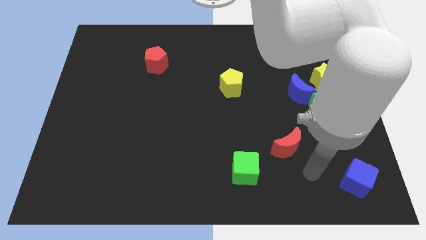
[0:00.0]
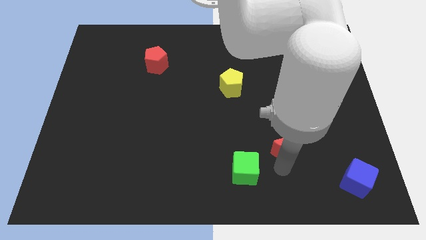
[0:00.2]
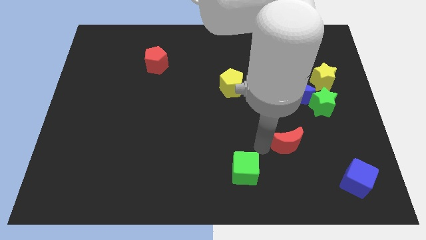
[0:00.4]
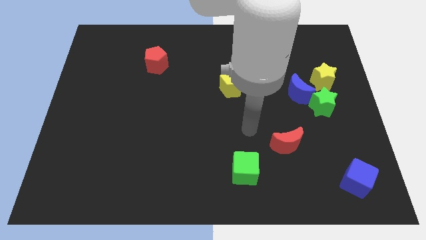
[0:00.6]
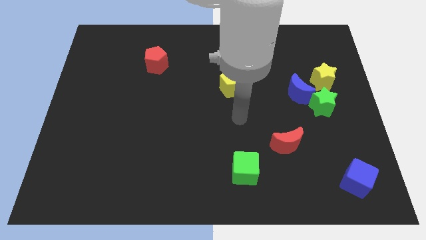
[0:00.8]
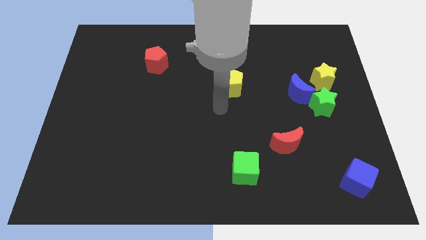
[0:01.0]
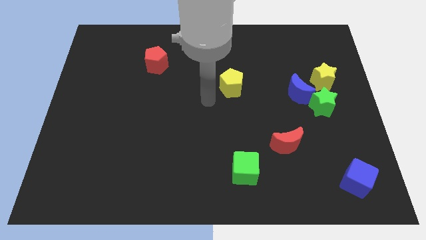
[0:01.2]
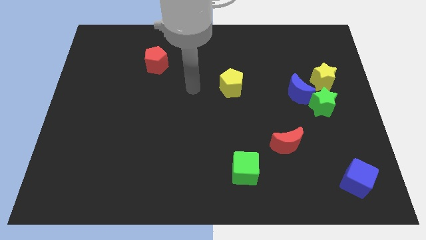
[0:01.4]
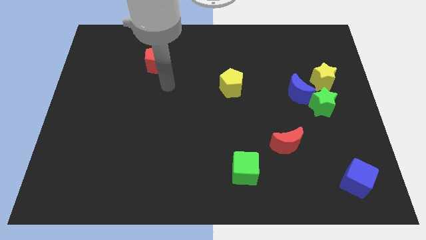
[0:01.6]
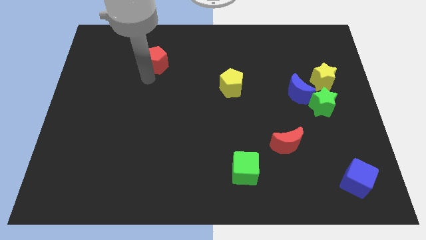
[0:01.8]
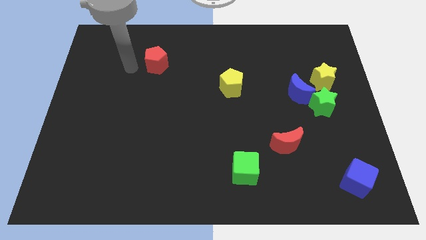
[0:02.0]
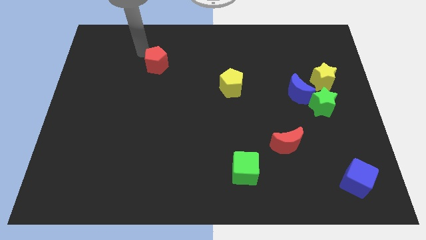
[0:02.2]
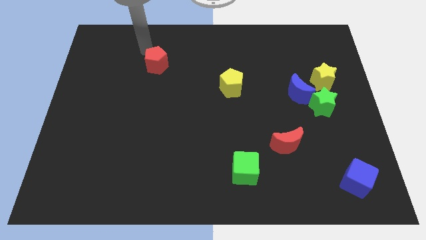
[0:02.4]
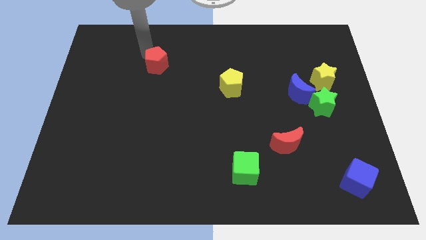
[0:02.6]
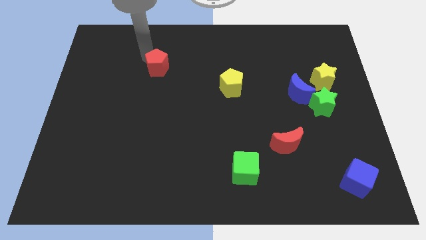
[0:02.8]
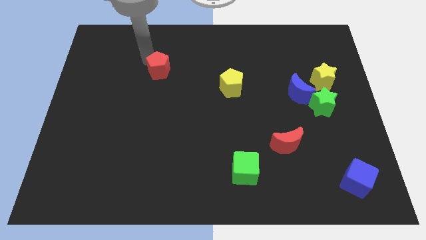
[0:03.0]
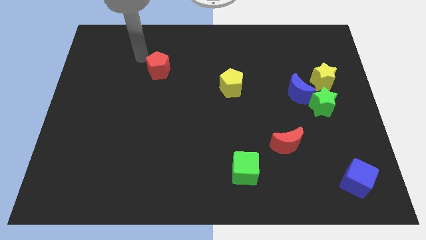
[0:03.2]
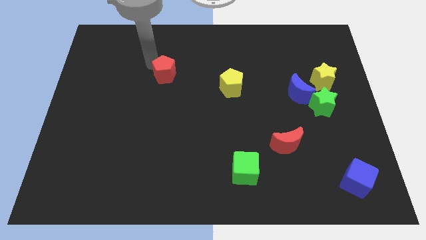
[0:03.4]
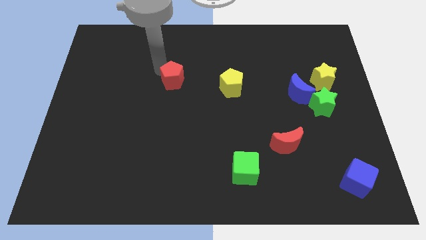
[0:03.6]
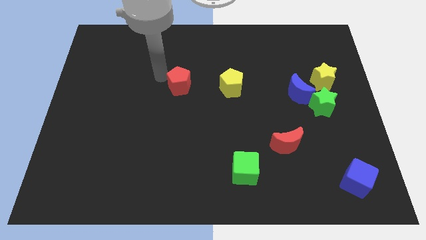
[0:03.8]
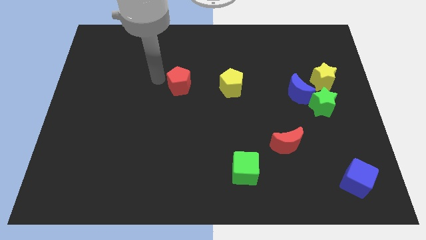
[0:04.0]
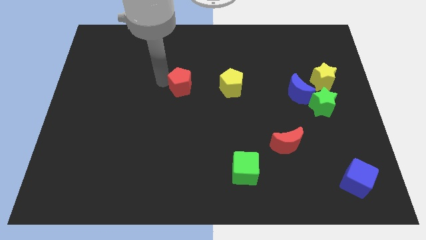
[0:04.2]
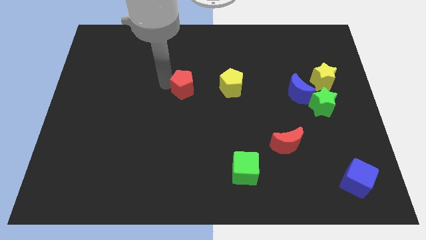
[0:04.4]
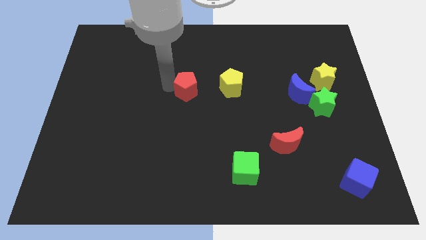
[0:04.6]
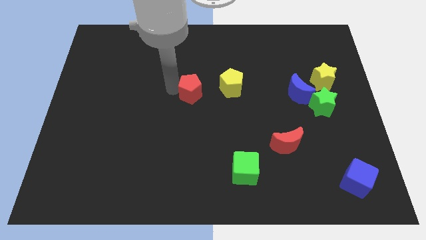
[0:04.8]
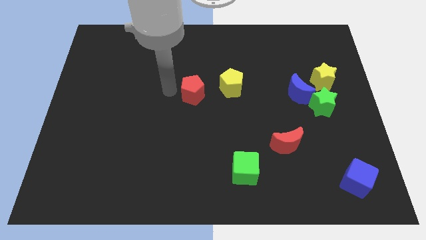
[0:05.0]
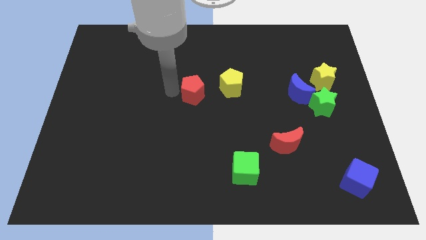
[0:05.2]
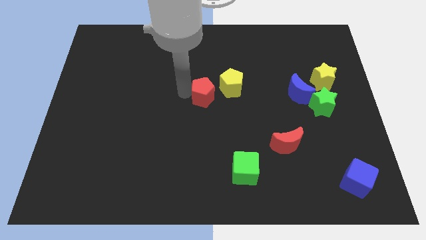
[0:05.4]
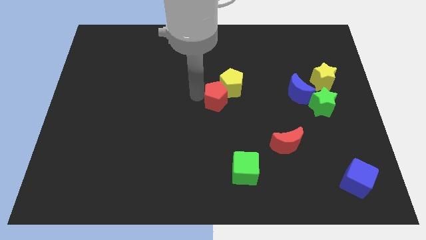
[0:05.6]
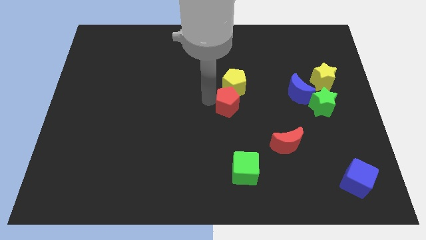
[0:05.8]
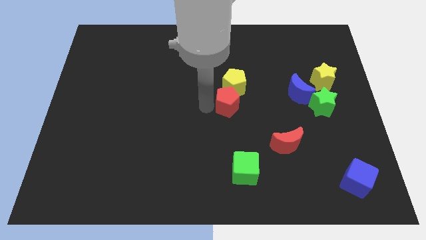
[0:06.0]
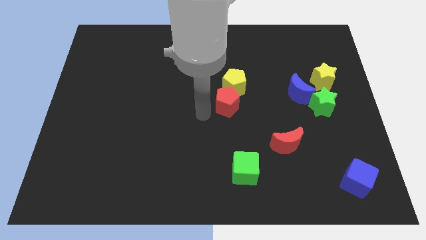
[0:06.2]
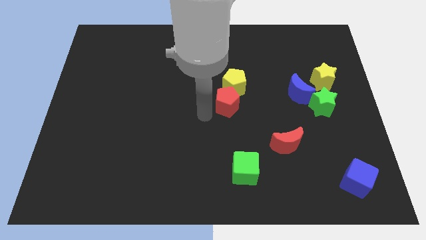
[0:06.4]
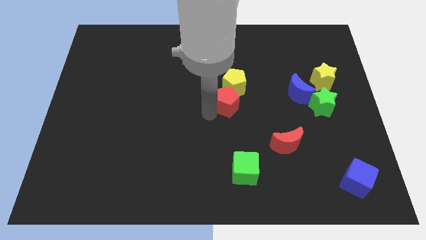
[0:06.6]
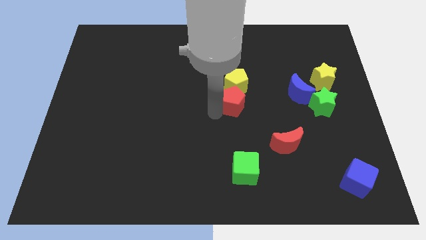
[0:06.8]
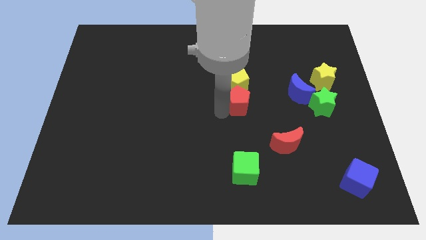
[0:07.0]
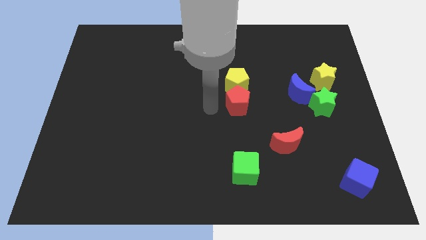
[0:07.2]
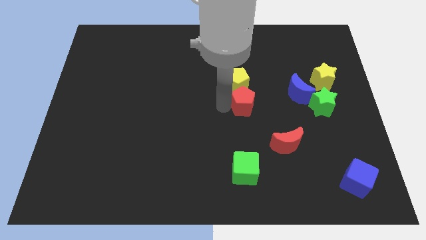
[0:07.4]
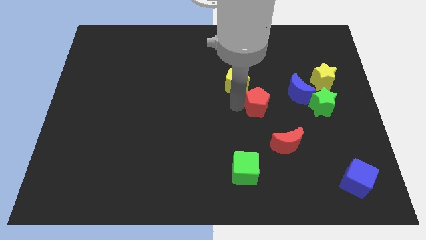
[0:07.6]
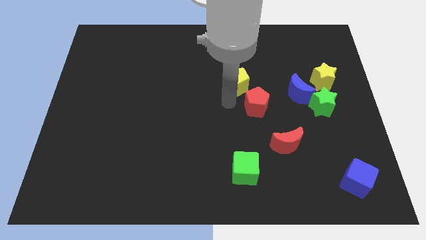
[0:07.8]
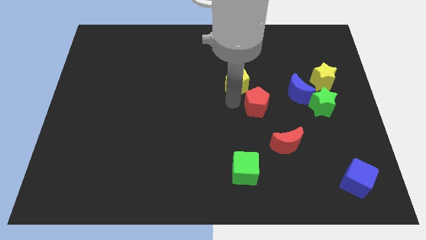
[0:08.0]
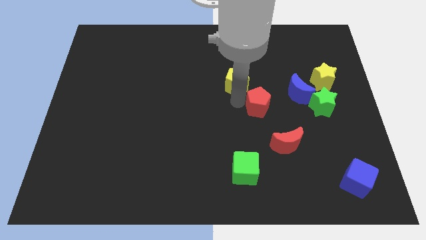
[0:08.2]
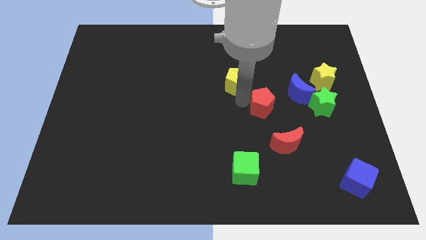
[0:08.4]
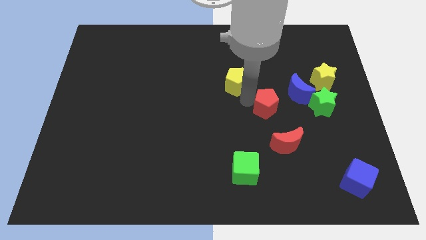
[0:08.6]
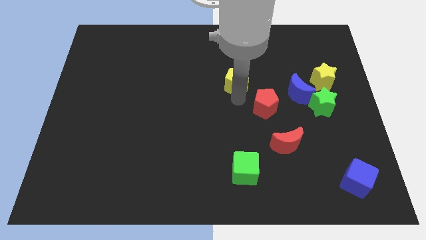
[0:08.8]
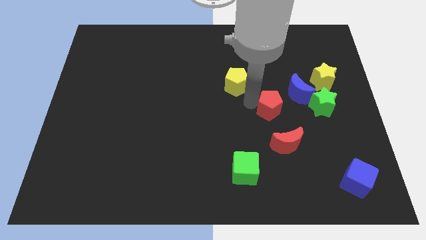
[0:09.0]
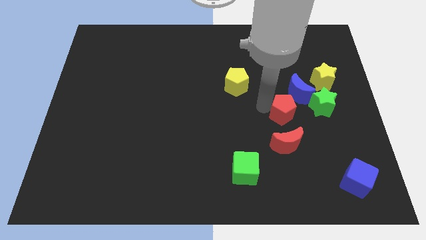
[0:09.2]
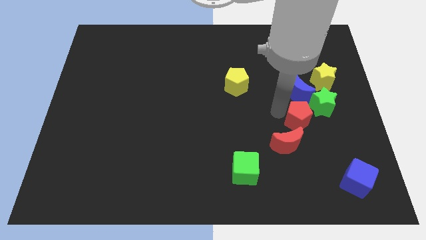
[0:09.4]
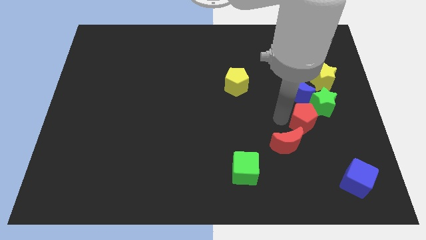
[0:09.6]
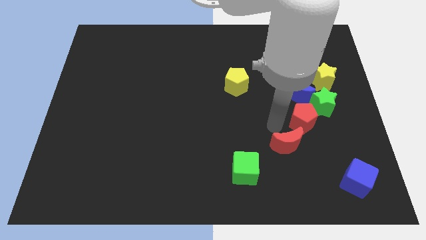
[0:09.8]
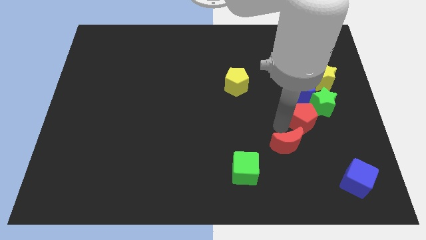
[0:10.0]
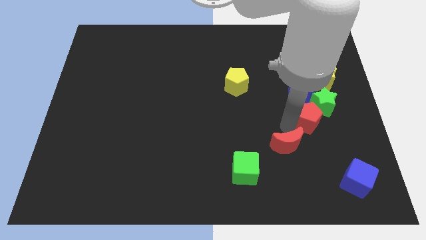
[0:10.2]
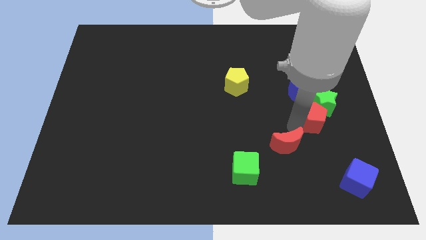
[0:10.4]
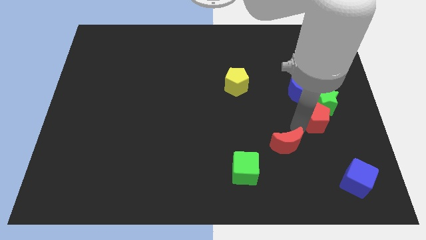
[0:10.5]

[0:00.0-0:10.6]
slide the red pentagon below the yellow star

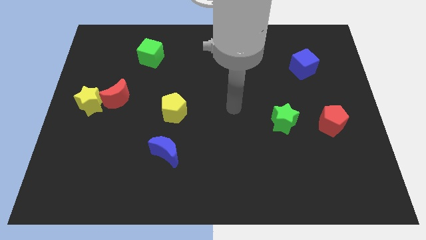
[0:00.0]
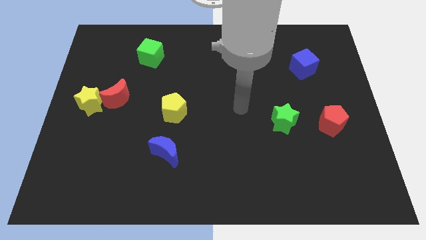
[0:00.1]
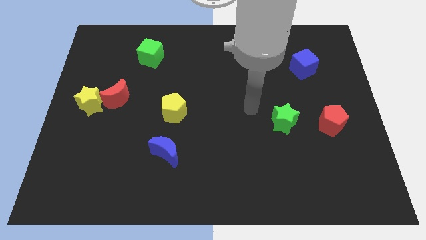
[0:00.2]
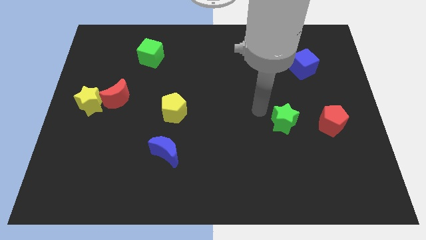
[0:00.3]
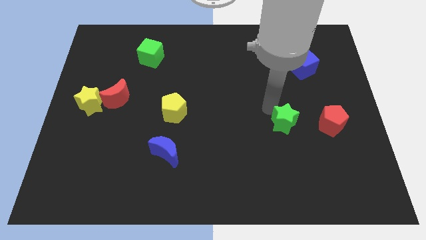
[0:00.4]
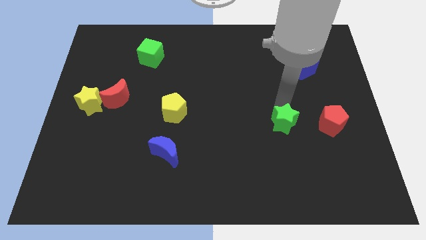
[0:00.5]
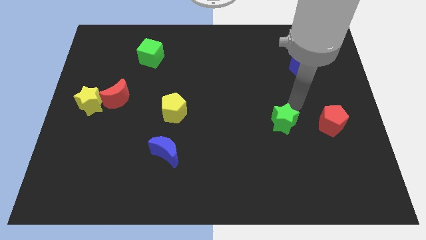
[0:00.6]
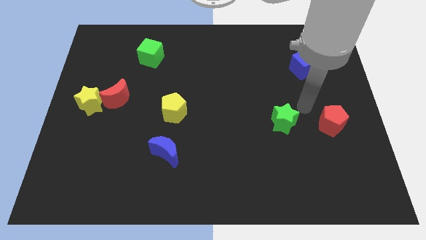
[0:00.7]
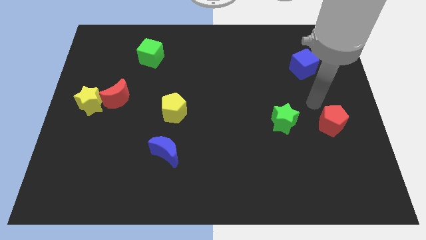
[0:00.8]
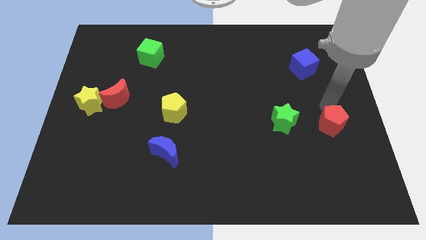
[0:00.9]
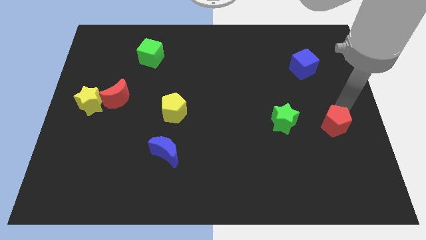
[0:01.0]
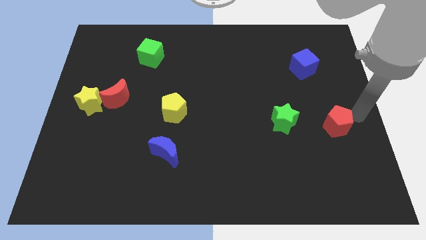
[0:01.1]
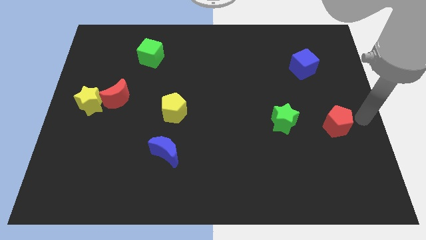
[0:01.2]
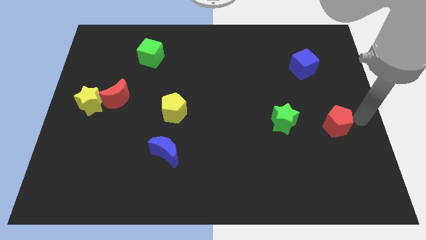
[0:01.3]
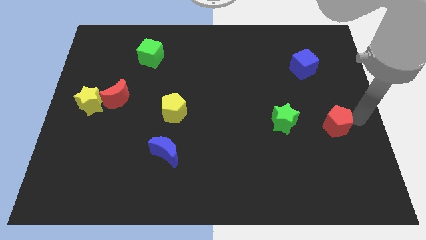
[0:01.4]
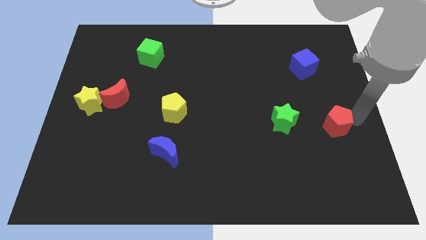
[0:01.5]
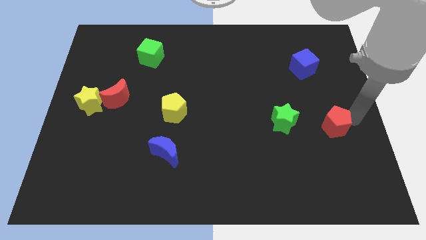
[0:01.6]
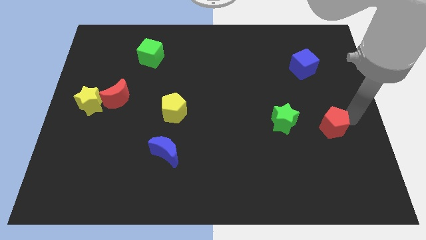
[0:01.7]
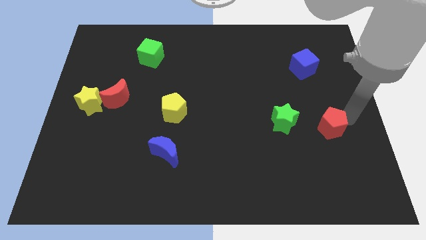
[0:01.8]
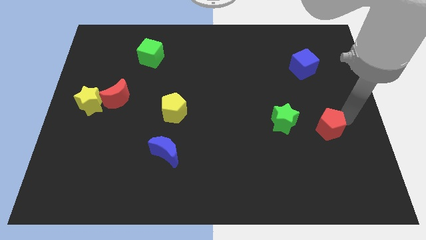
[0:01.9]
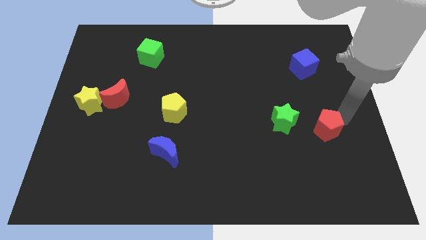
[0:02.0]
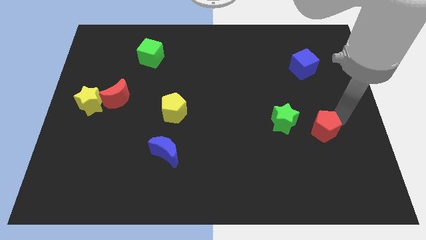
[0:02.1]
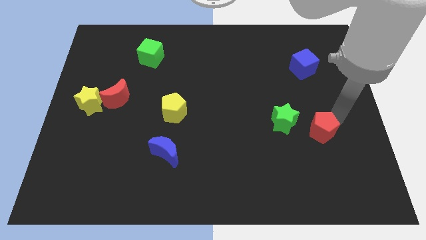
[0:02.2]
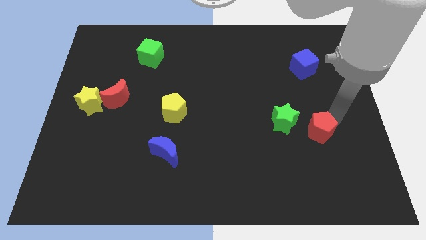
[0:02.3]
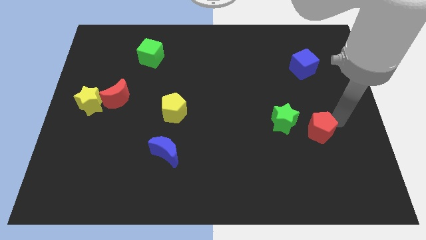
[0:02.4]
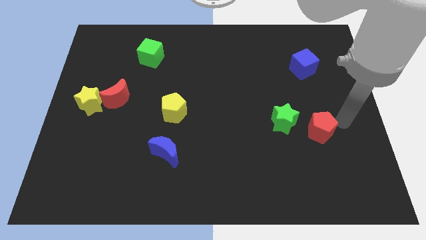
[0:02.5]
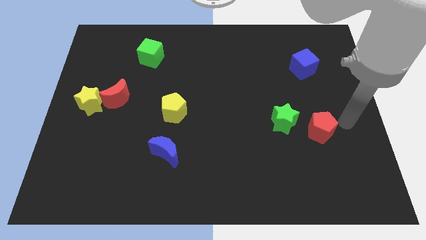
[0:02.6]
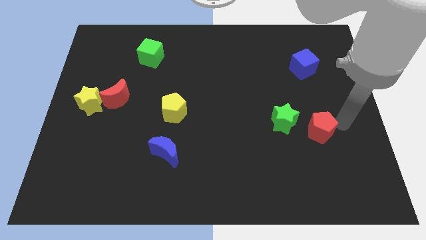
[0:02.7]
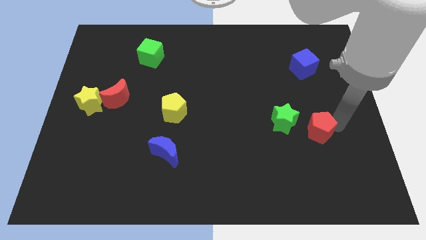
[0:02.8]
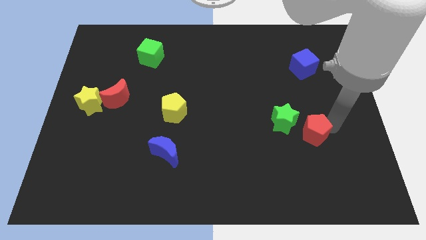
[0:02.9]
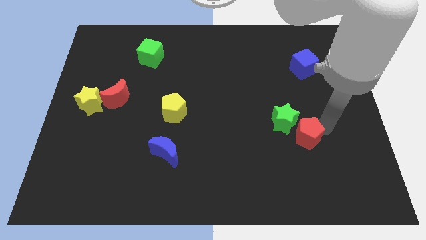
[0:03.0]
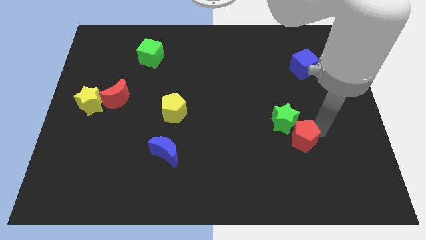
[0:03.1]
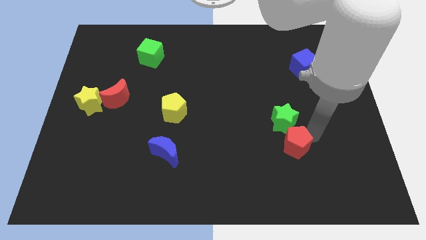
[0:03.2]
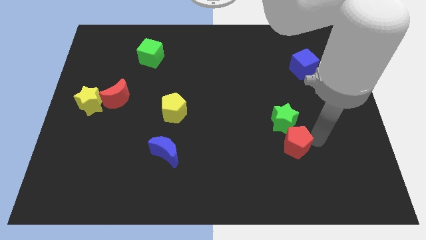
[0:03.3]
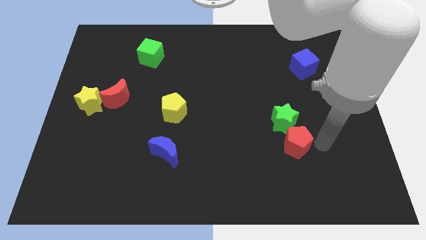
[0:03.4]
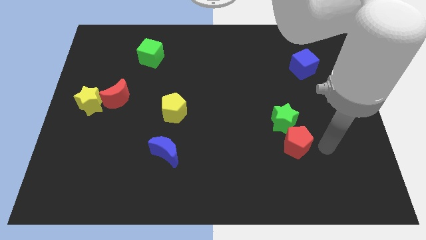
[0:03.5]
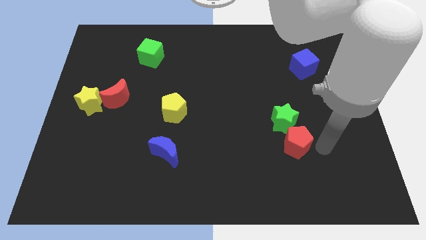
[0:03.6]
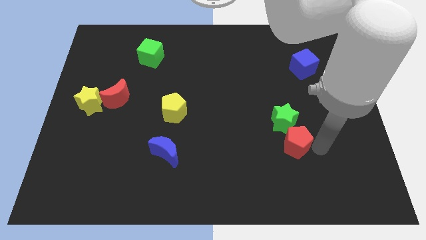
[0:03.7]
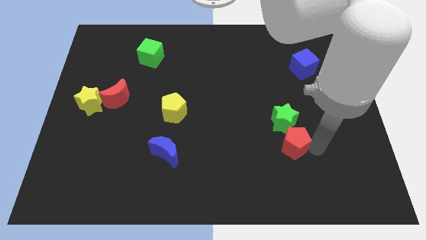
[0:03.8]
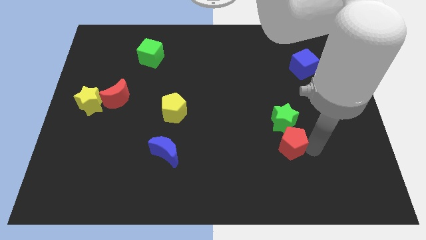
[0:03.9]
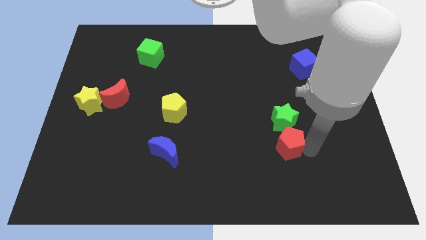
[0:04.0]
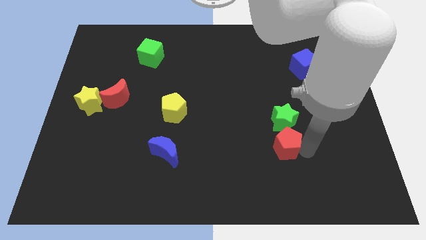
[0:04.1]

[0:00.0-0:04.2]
slide the red pentagon to the bottom left of the green star
